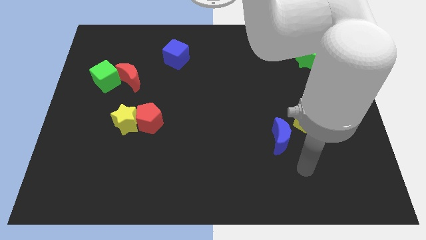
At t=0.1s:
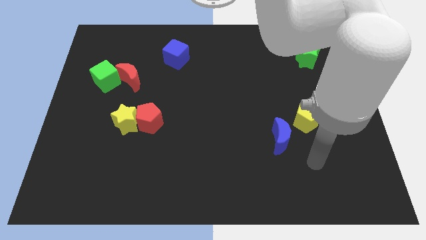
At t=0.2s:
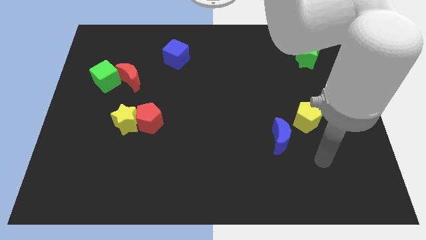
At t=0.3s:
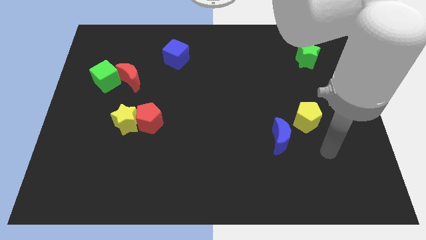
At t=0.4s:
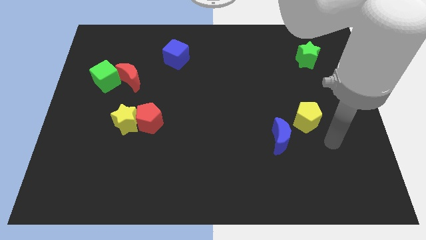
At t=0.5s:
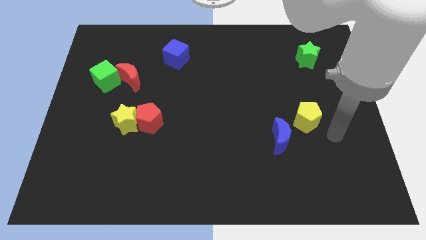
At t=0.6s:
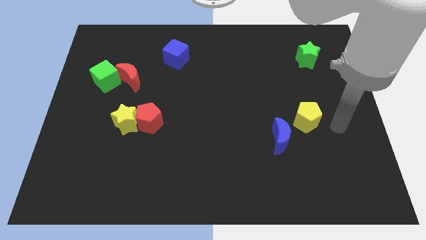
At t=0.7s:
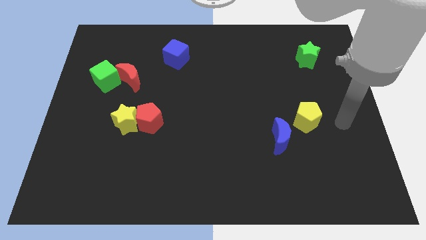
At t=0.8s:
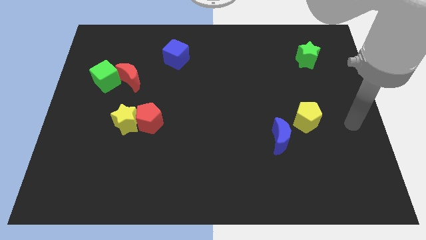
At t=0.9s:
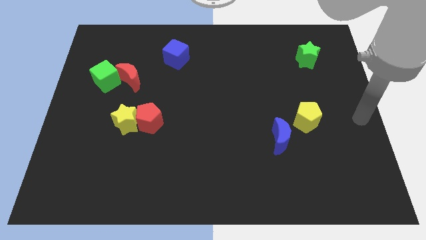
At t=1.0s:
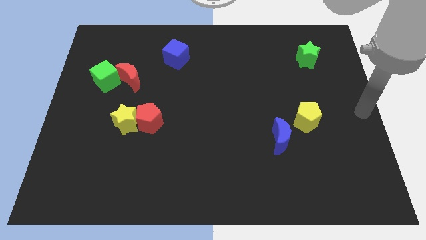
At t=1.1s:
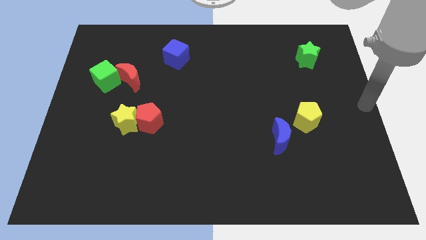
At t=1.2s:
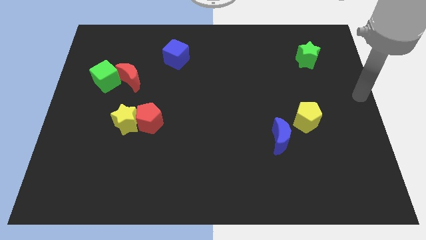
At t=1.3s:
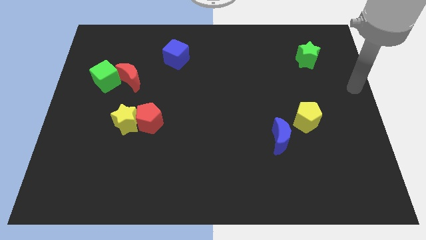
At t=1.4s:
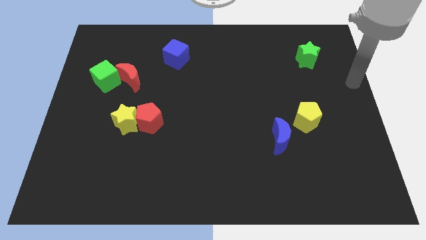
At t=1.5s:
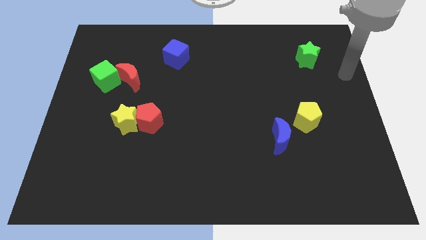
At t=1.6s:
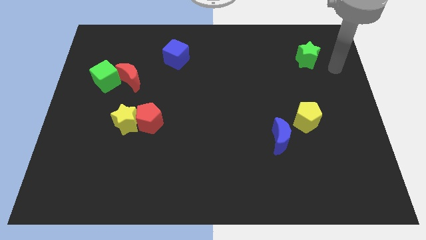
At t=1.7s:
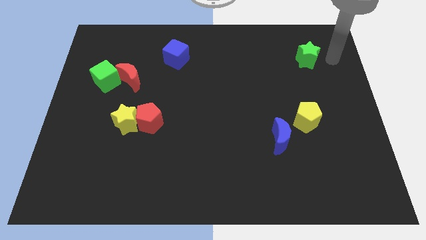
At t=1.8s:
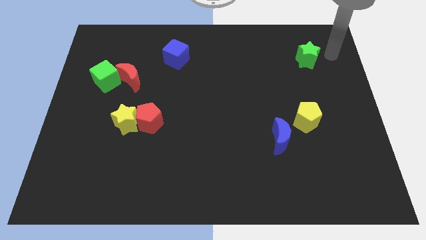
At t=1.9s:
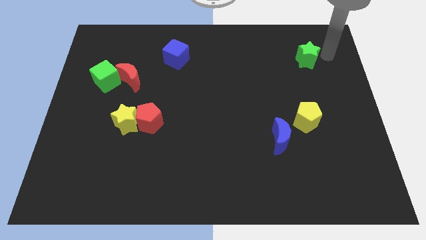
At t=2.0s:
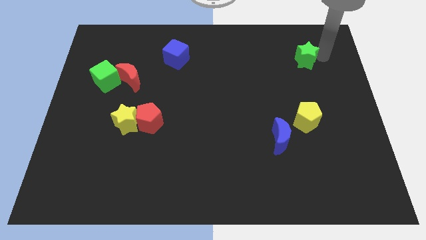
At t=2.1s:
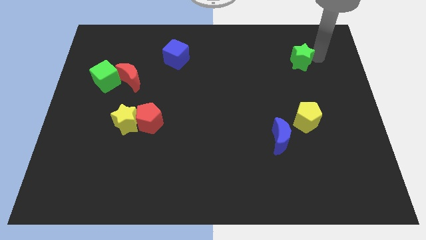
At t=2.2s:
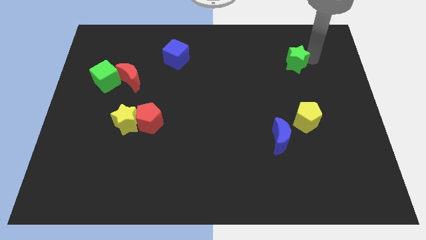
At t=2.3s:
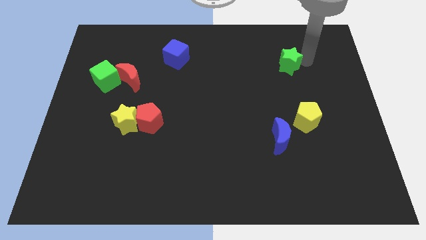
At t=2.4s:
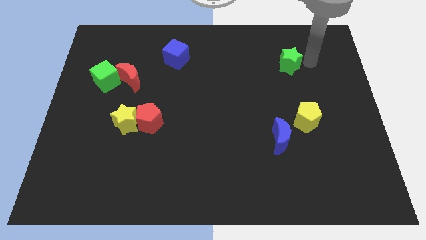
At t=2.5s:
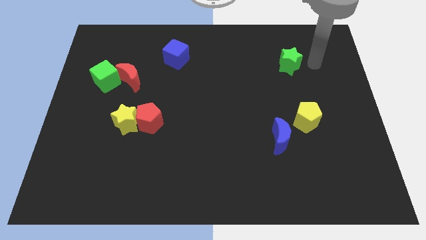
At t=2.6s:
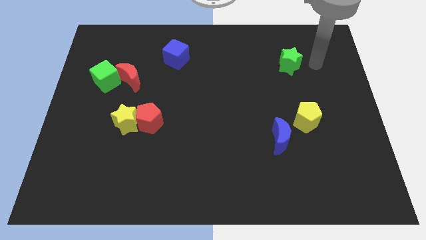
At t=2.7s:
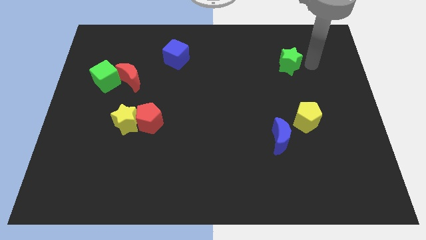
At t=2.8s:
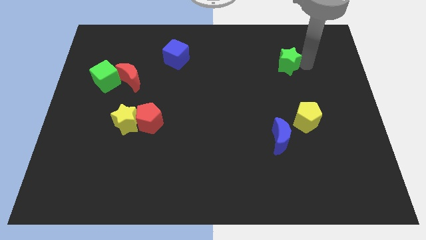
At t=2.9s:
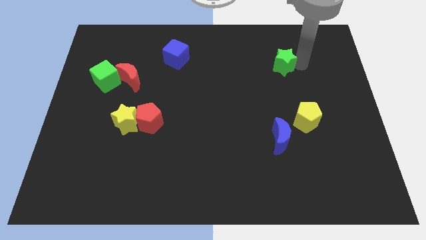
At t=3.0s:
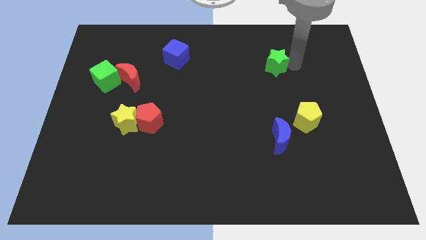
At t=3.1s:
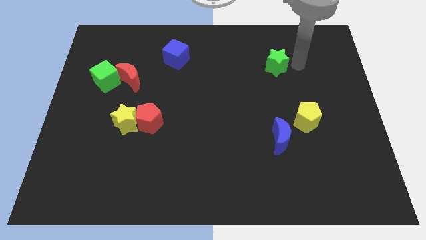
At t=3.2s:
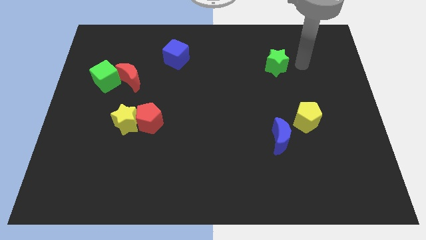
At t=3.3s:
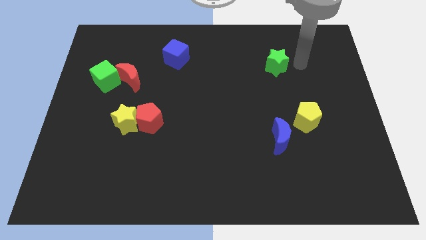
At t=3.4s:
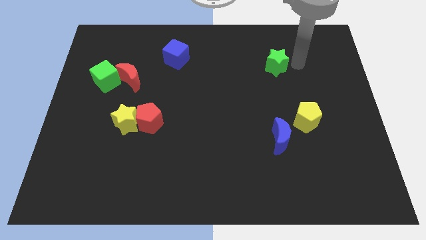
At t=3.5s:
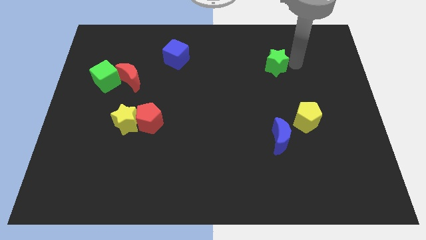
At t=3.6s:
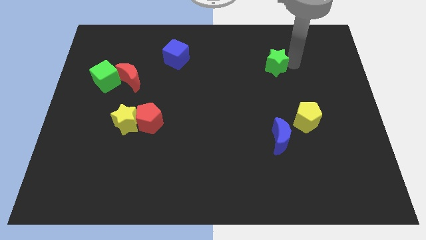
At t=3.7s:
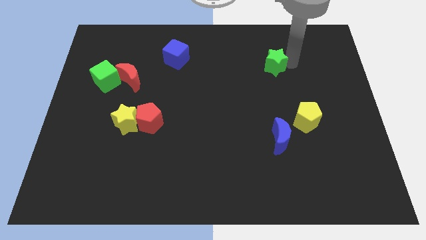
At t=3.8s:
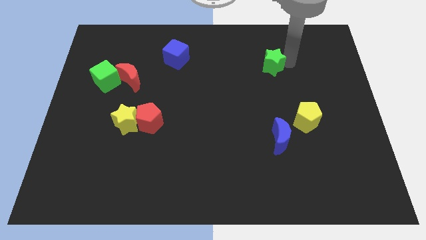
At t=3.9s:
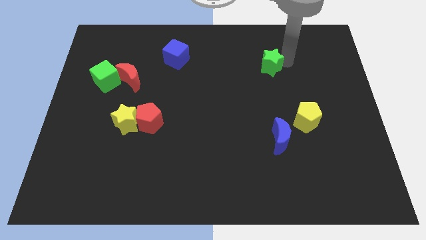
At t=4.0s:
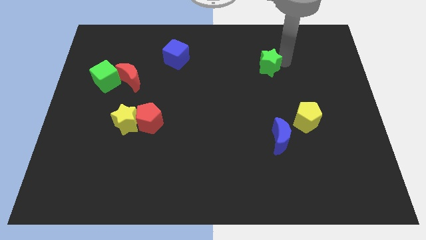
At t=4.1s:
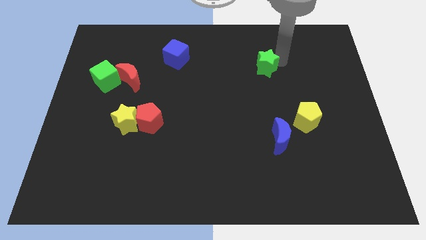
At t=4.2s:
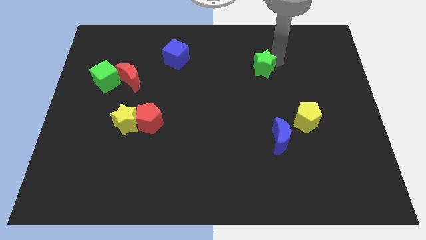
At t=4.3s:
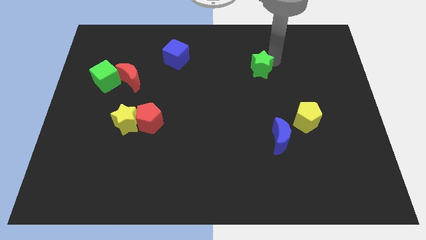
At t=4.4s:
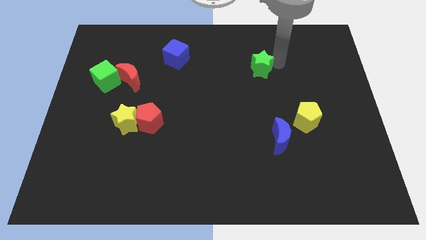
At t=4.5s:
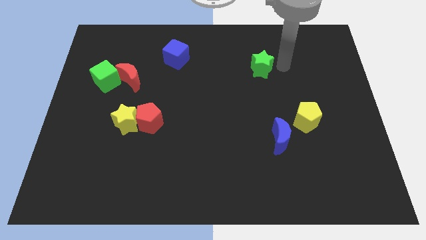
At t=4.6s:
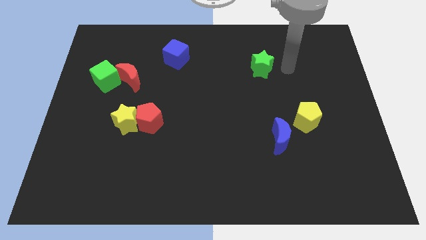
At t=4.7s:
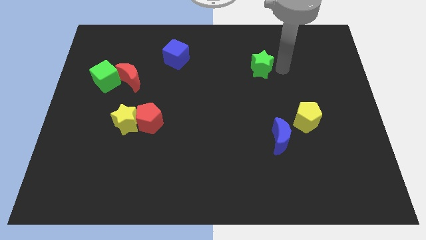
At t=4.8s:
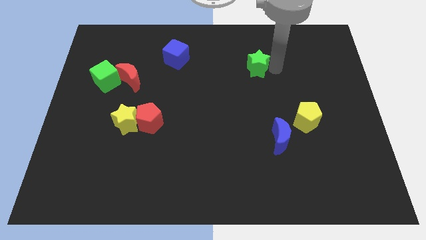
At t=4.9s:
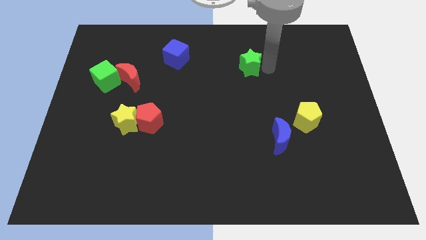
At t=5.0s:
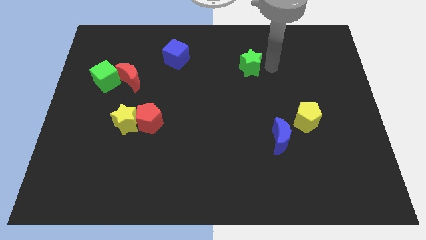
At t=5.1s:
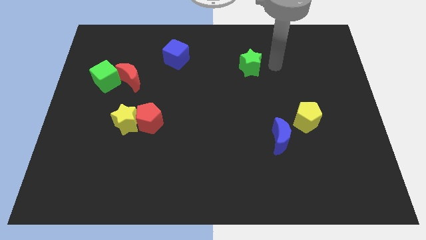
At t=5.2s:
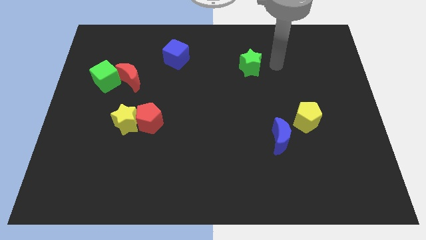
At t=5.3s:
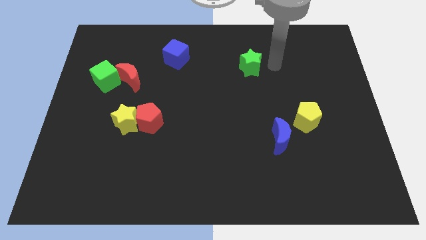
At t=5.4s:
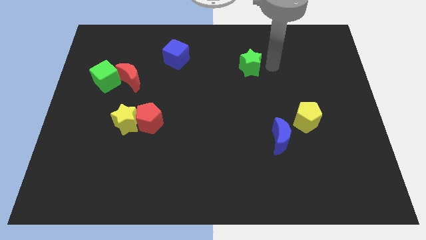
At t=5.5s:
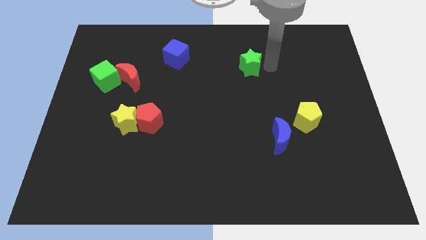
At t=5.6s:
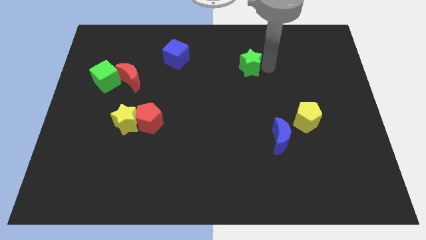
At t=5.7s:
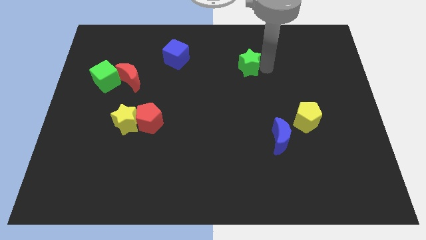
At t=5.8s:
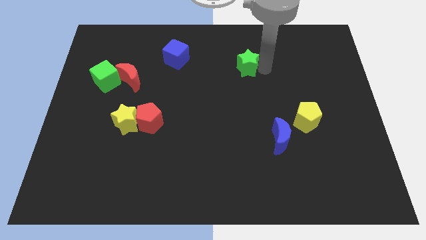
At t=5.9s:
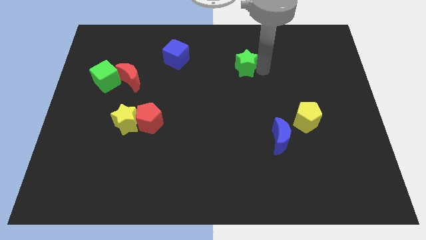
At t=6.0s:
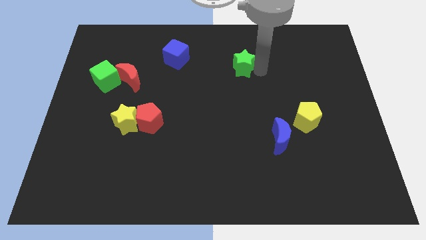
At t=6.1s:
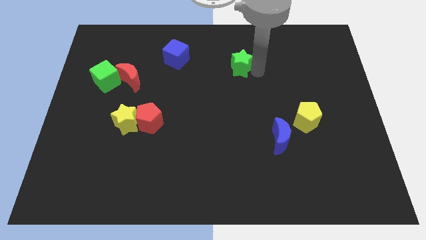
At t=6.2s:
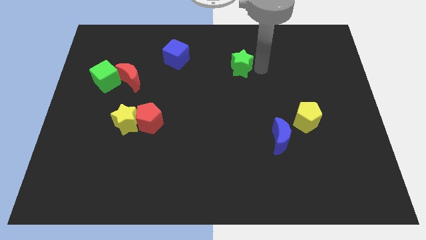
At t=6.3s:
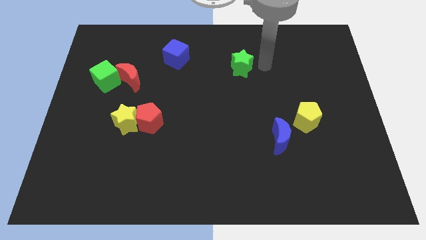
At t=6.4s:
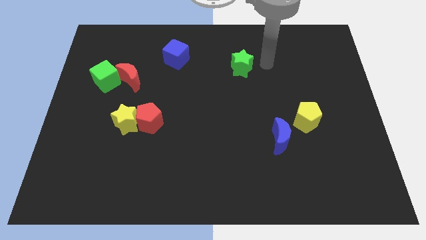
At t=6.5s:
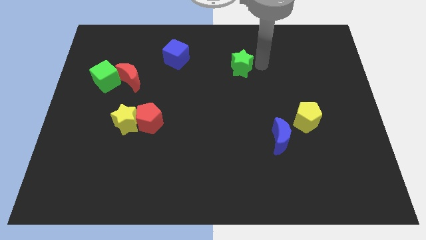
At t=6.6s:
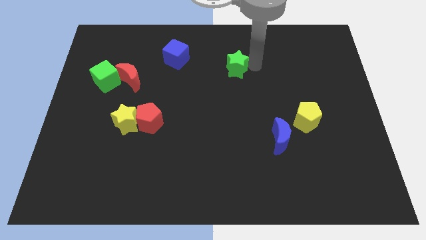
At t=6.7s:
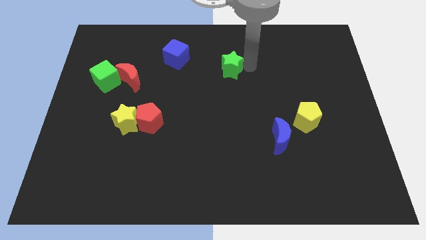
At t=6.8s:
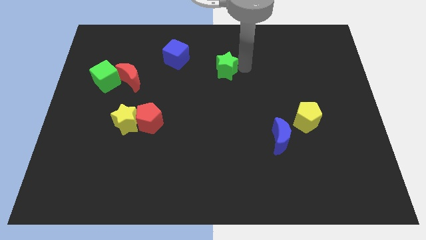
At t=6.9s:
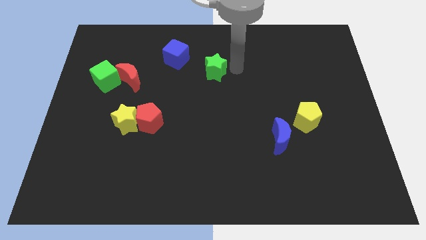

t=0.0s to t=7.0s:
push the green star to the bottom right side of the blue cube
